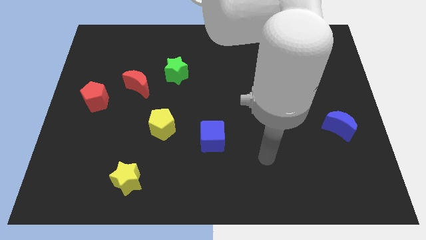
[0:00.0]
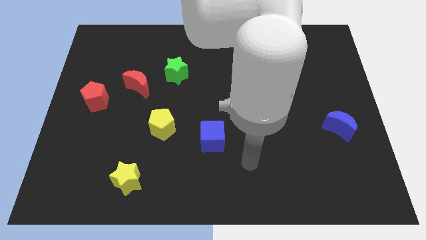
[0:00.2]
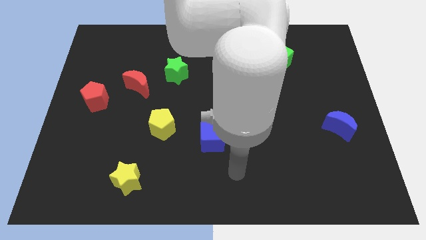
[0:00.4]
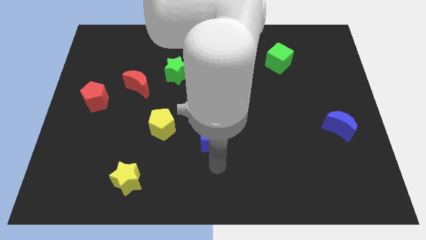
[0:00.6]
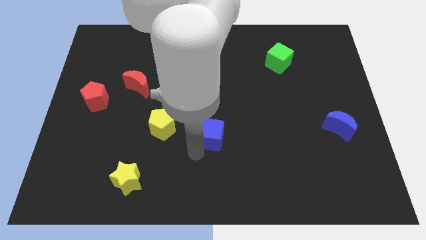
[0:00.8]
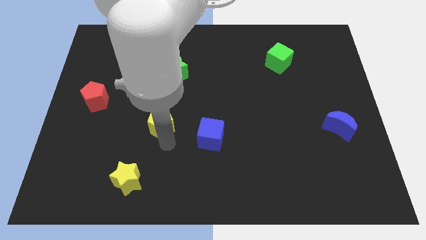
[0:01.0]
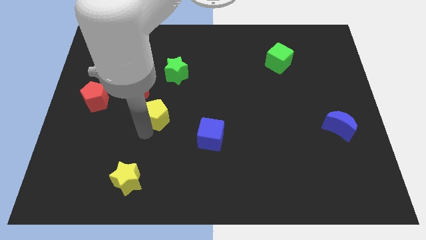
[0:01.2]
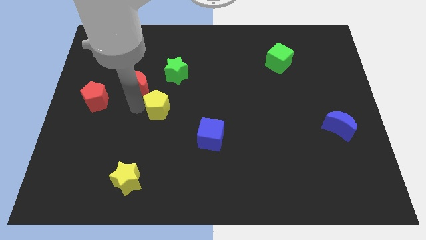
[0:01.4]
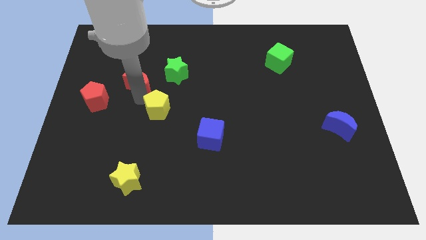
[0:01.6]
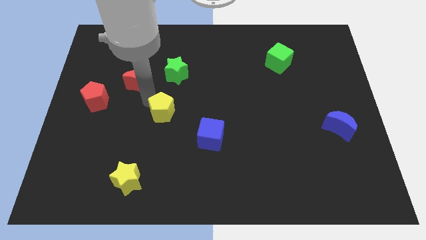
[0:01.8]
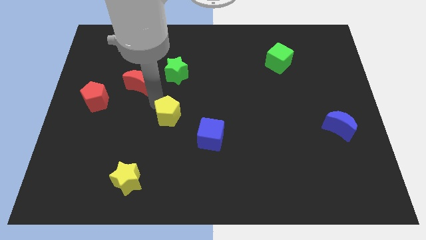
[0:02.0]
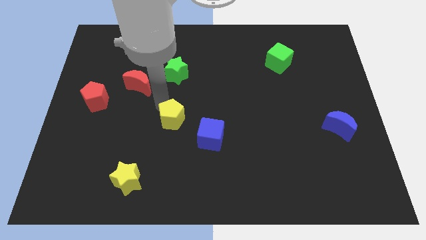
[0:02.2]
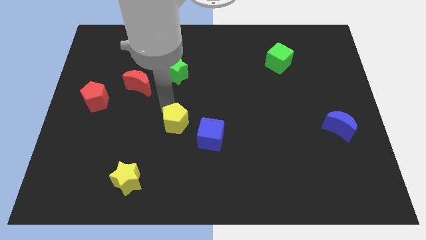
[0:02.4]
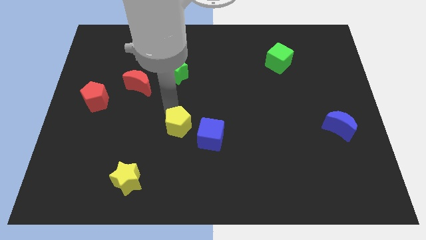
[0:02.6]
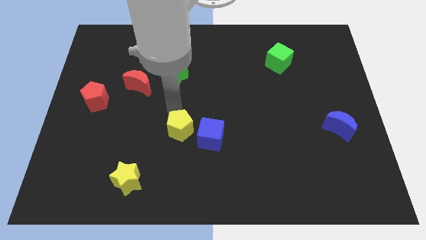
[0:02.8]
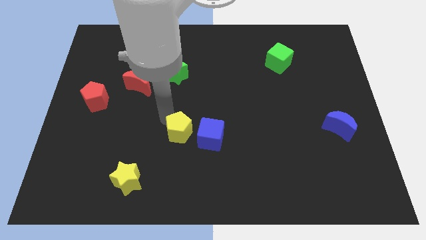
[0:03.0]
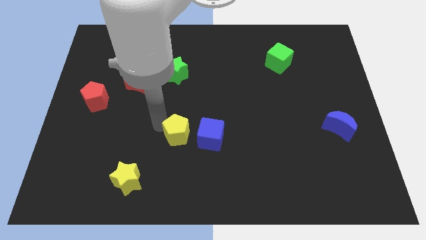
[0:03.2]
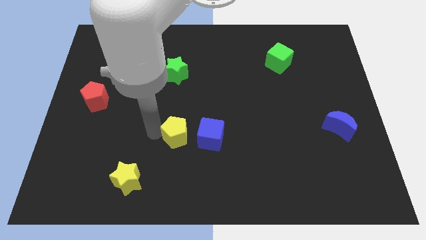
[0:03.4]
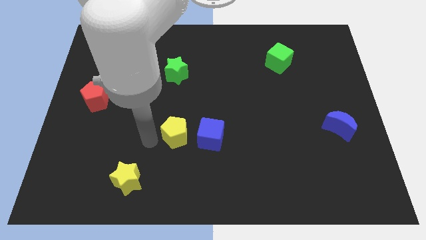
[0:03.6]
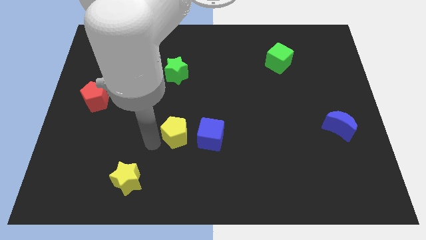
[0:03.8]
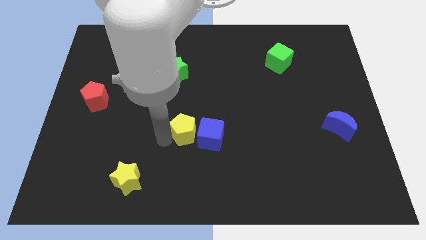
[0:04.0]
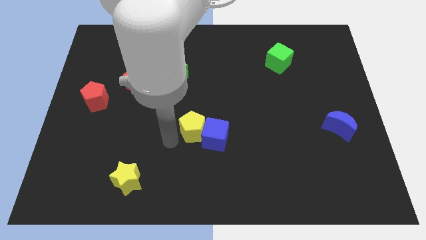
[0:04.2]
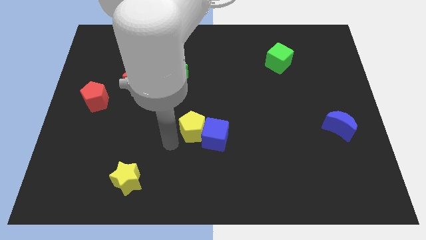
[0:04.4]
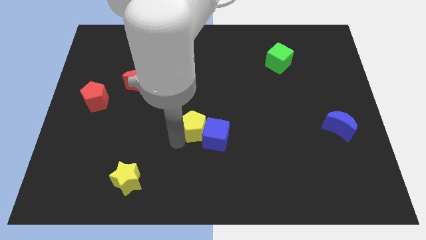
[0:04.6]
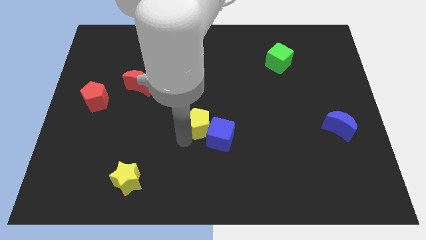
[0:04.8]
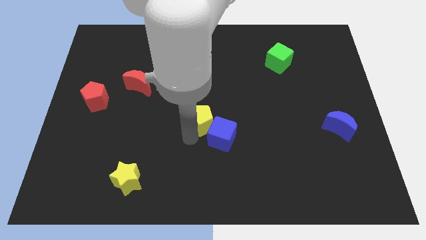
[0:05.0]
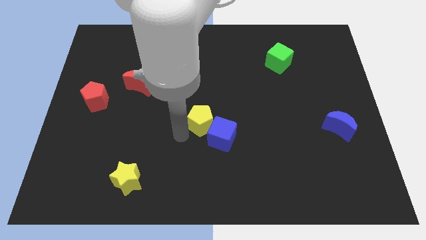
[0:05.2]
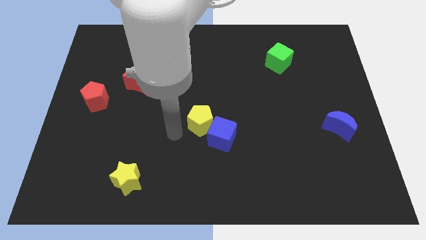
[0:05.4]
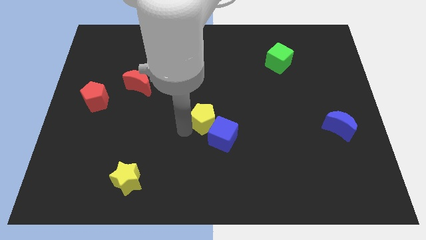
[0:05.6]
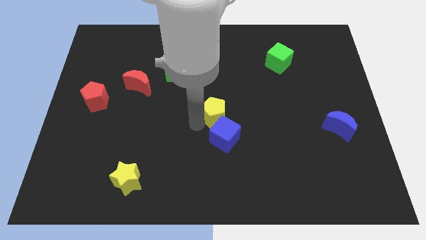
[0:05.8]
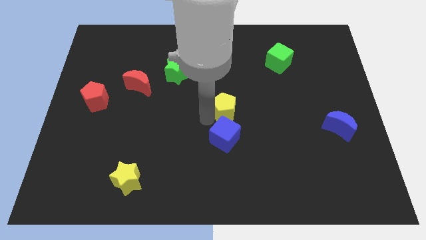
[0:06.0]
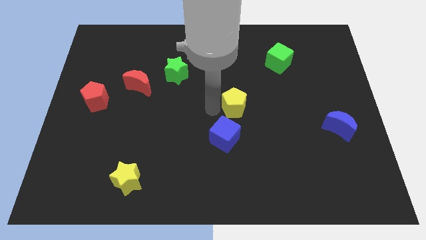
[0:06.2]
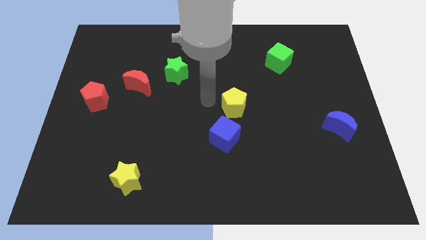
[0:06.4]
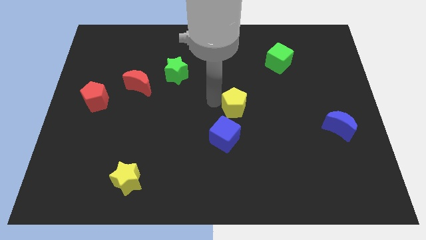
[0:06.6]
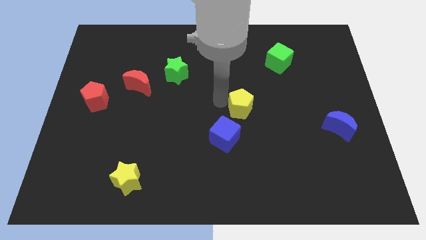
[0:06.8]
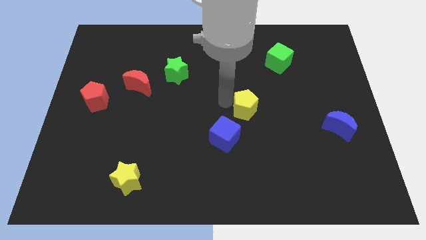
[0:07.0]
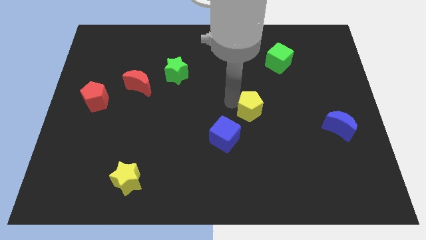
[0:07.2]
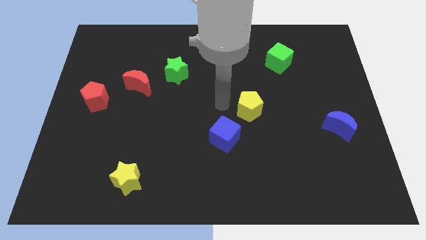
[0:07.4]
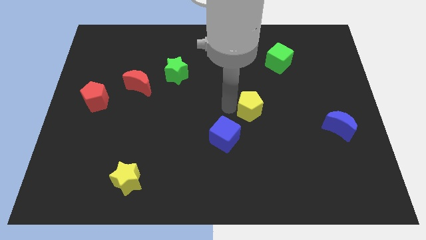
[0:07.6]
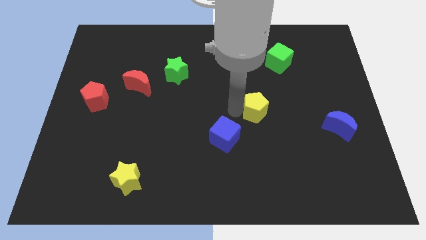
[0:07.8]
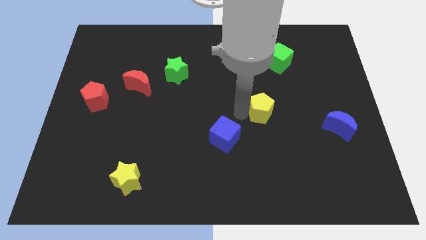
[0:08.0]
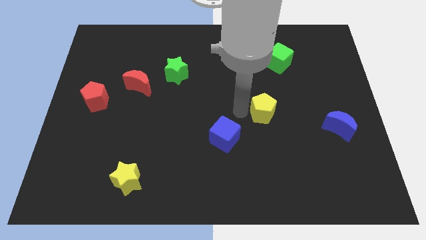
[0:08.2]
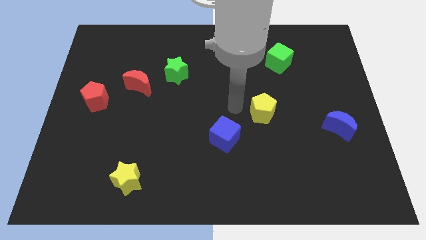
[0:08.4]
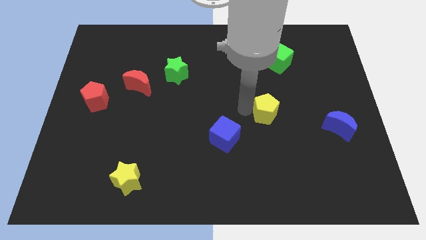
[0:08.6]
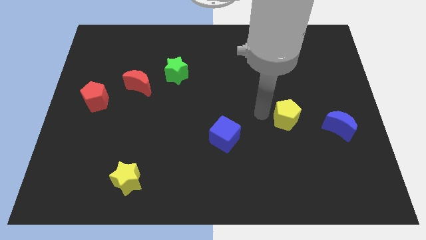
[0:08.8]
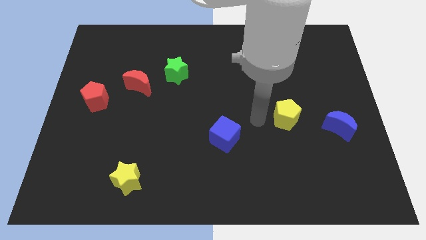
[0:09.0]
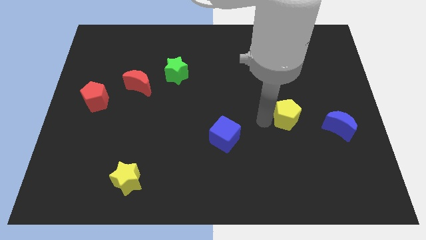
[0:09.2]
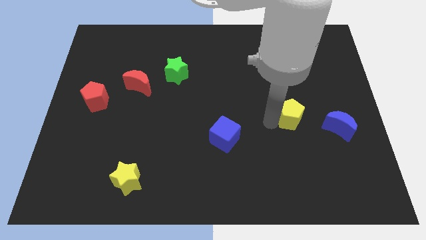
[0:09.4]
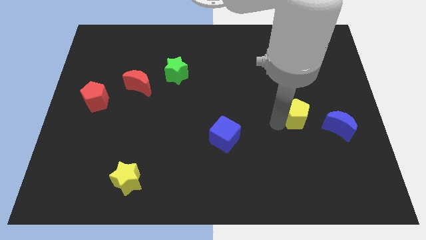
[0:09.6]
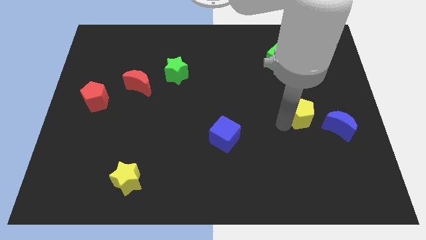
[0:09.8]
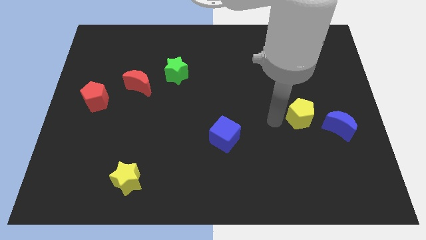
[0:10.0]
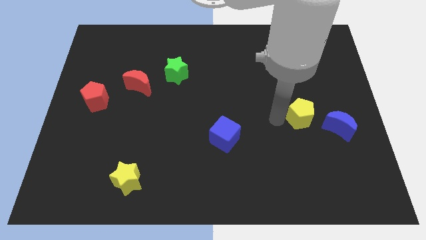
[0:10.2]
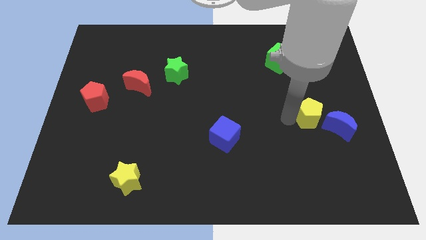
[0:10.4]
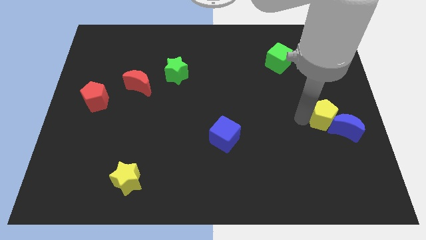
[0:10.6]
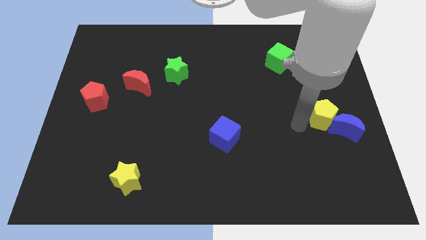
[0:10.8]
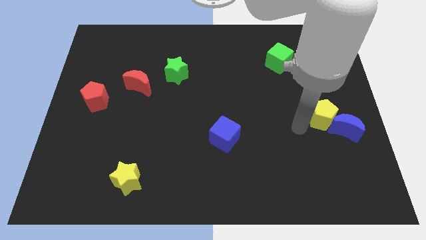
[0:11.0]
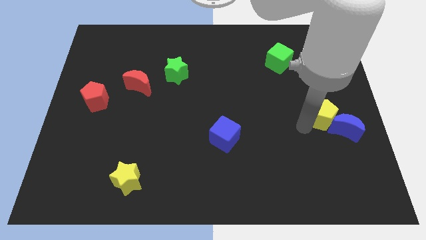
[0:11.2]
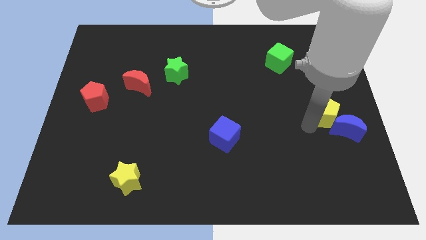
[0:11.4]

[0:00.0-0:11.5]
put the yellow pentagon to the right side

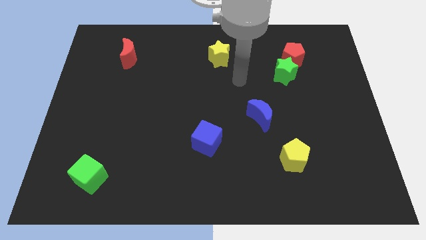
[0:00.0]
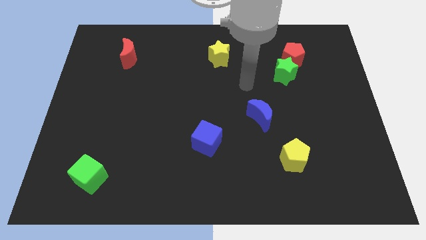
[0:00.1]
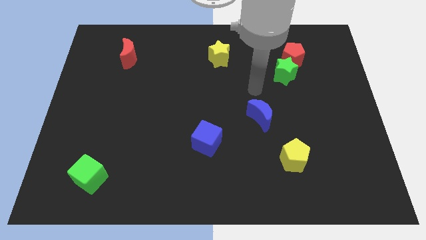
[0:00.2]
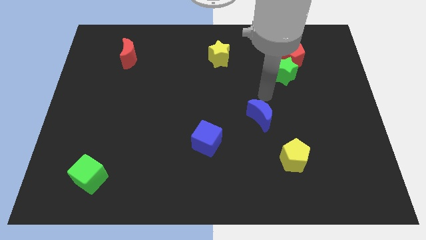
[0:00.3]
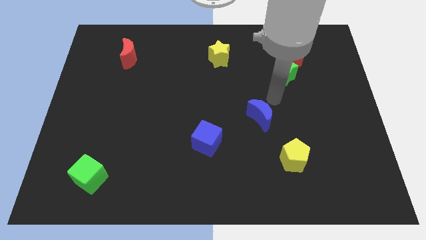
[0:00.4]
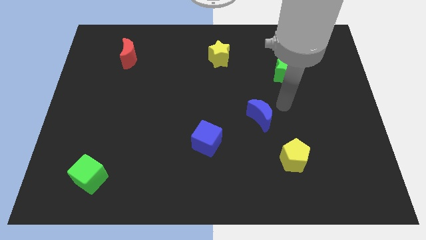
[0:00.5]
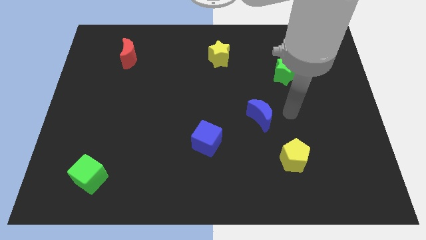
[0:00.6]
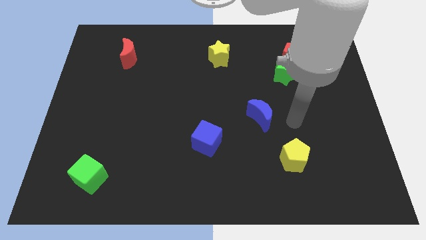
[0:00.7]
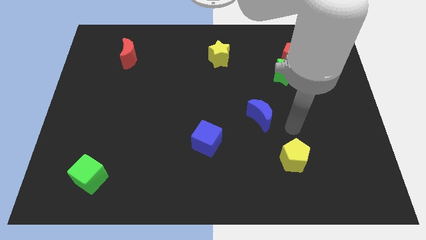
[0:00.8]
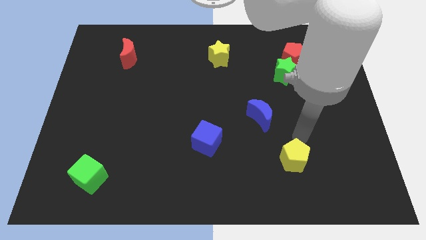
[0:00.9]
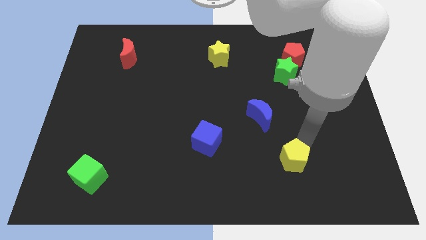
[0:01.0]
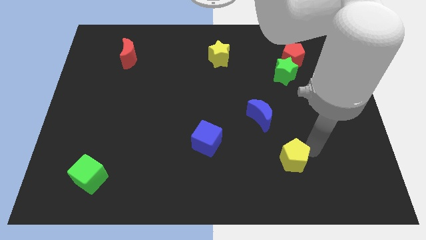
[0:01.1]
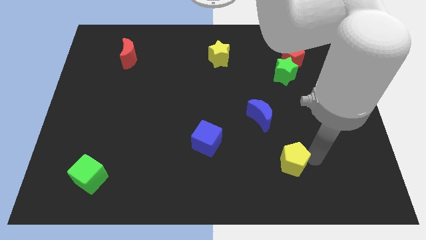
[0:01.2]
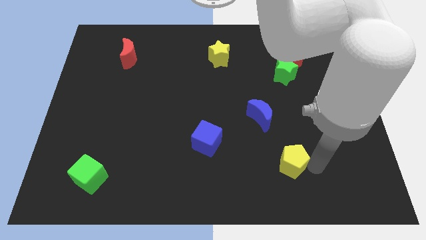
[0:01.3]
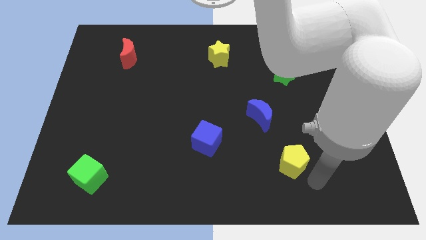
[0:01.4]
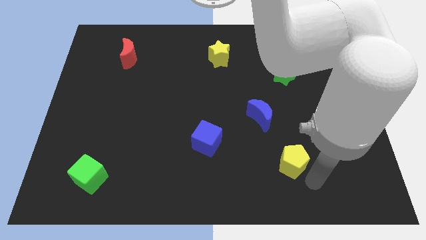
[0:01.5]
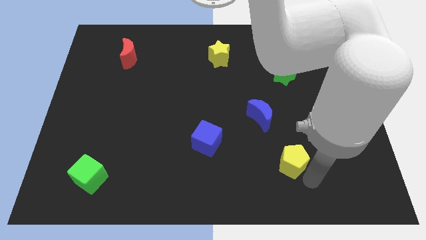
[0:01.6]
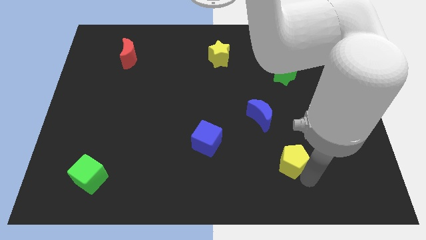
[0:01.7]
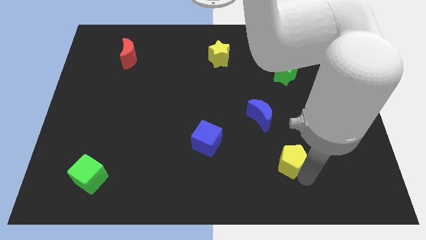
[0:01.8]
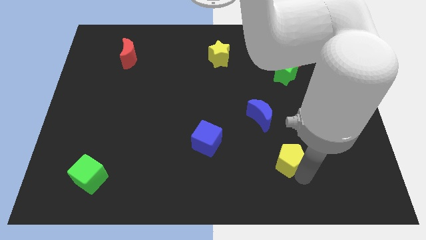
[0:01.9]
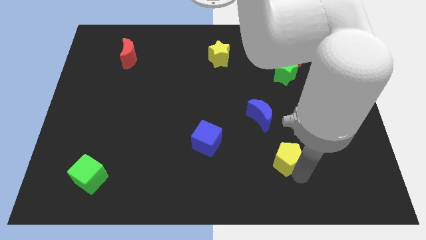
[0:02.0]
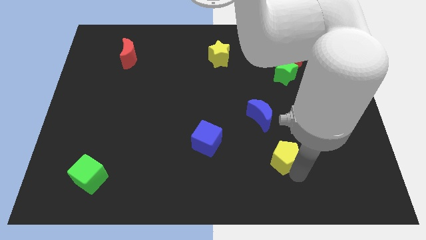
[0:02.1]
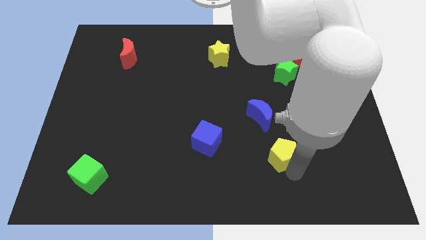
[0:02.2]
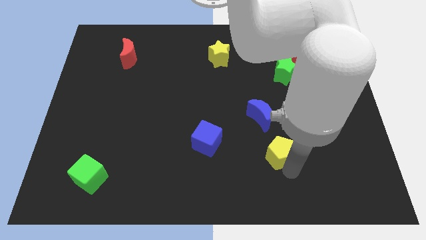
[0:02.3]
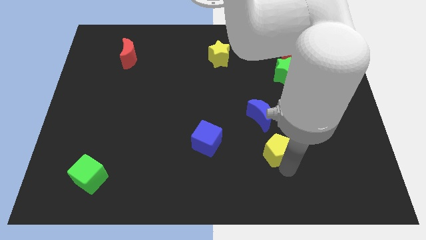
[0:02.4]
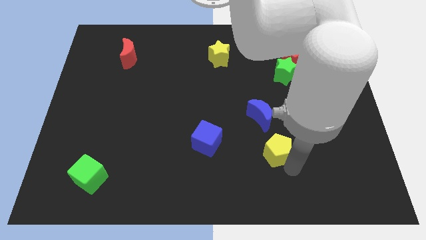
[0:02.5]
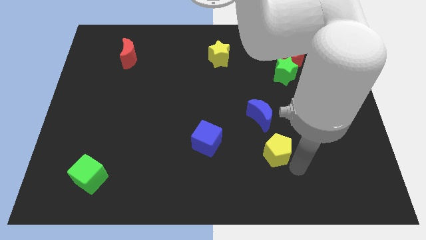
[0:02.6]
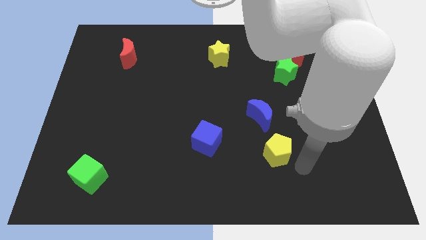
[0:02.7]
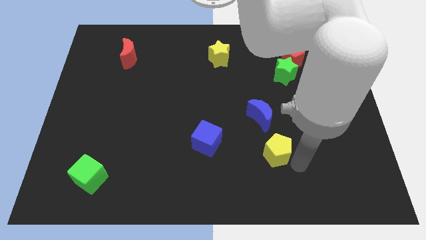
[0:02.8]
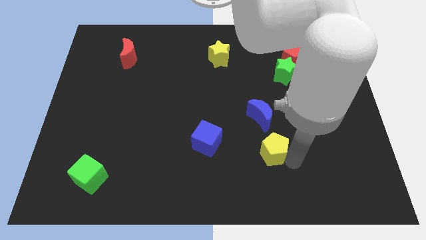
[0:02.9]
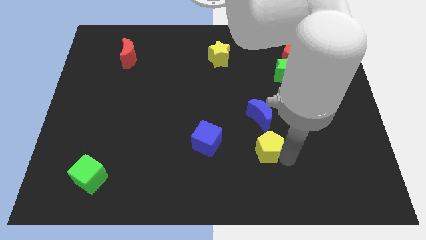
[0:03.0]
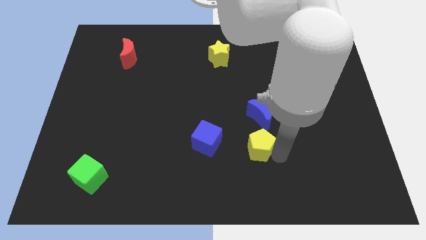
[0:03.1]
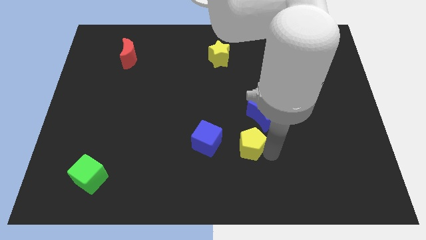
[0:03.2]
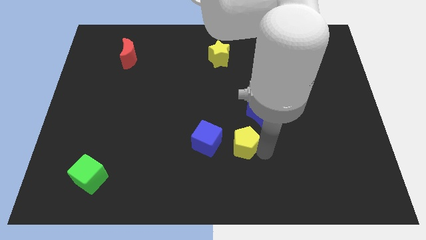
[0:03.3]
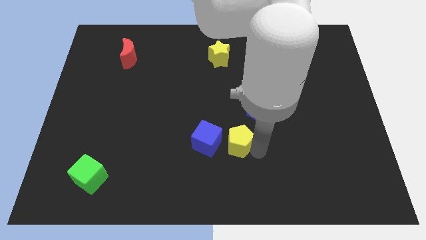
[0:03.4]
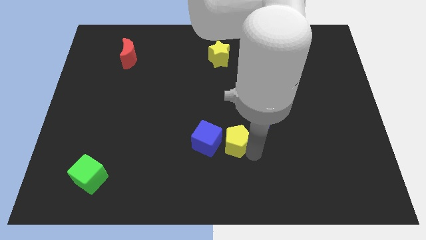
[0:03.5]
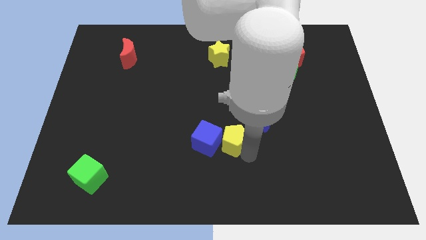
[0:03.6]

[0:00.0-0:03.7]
put the yellow pentagon to the center of the board
